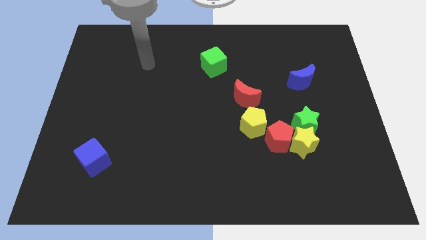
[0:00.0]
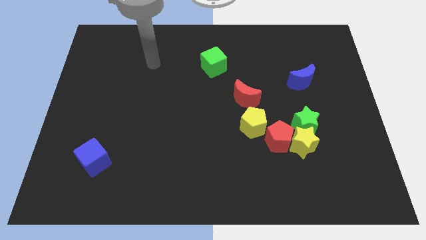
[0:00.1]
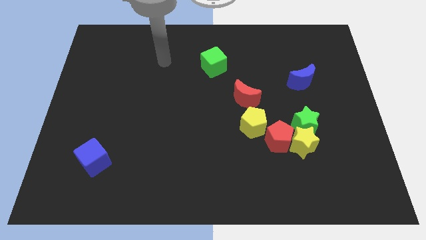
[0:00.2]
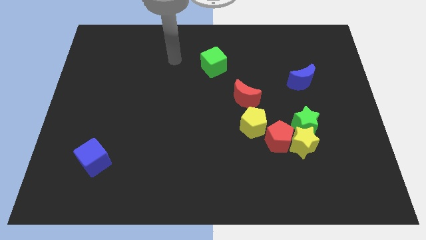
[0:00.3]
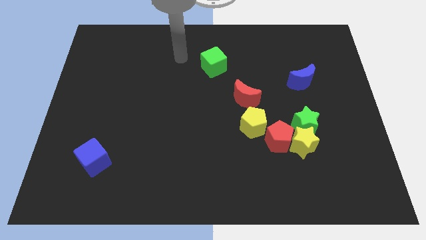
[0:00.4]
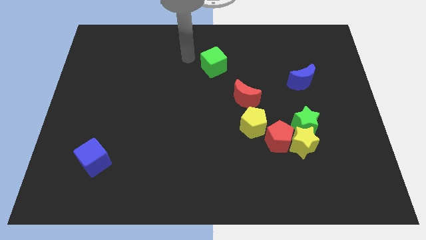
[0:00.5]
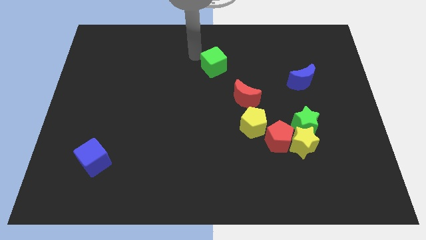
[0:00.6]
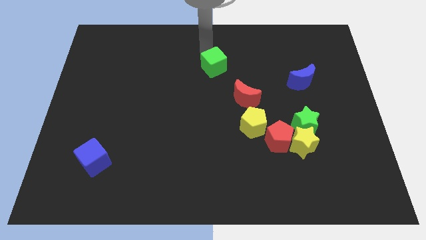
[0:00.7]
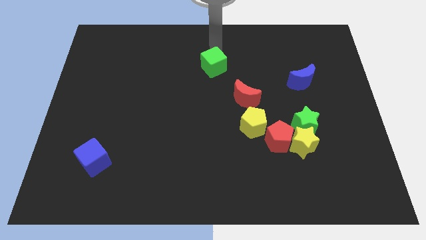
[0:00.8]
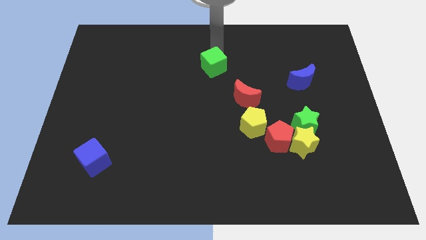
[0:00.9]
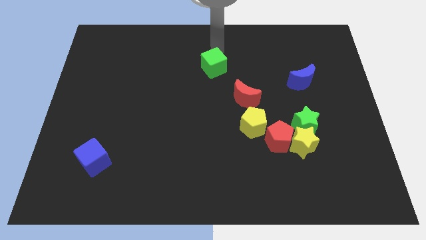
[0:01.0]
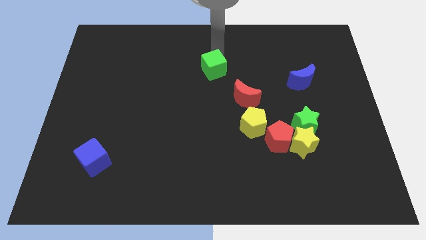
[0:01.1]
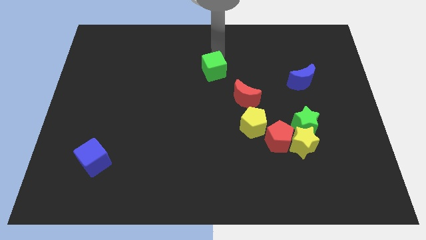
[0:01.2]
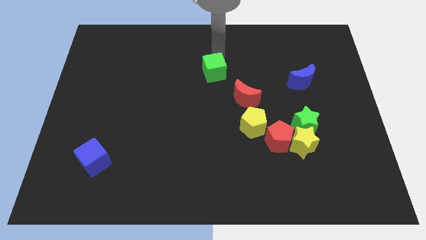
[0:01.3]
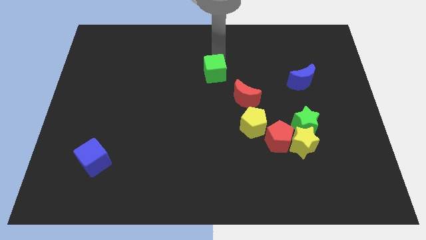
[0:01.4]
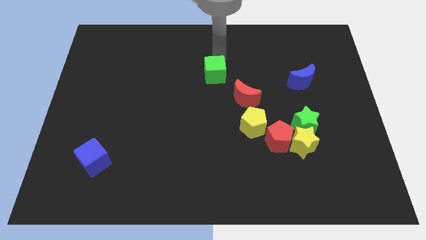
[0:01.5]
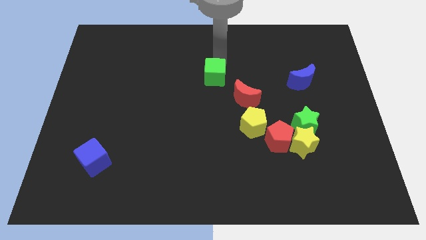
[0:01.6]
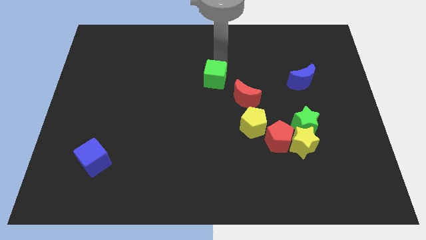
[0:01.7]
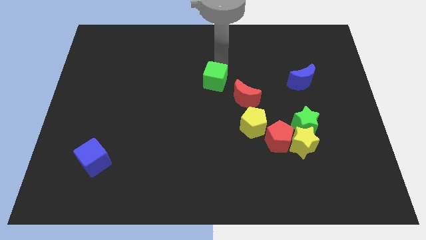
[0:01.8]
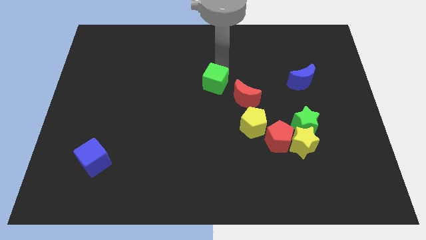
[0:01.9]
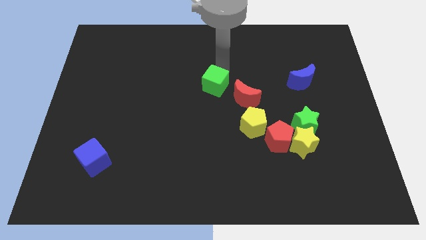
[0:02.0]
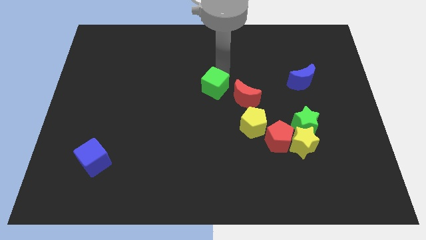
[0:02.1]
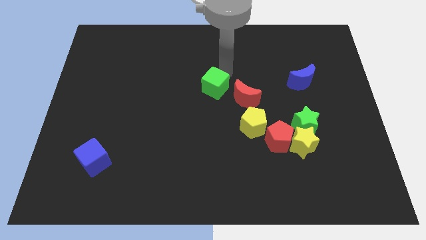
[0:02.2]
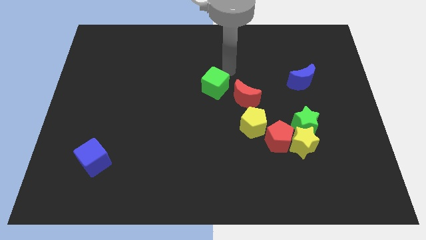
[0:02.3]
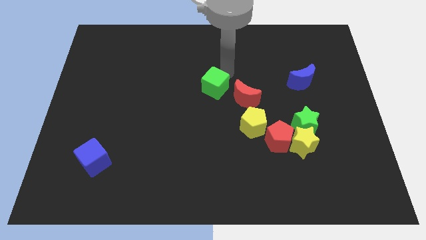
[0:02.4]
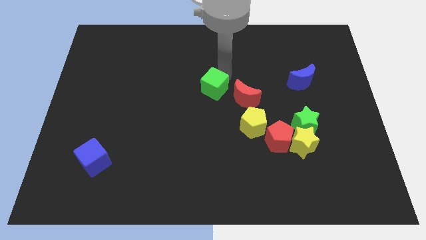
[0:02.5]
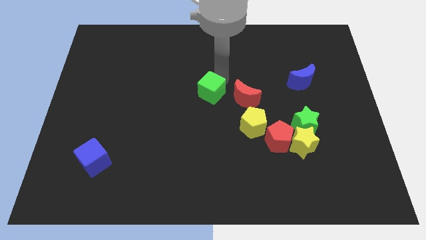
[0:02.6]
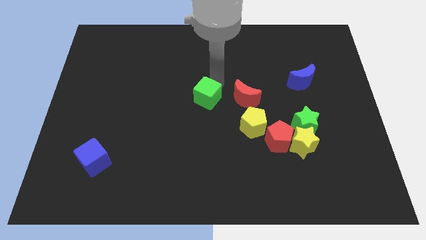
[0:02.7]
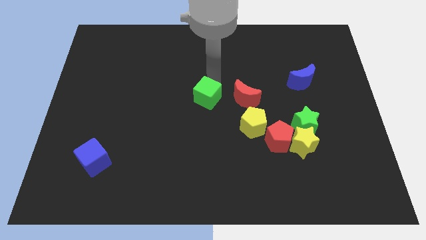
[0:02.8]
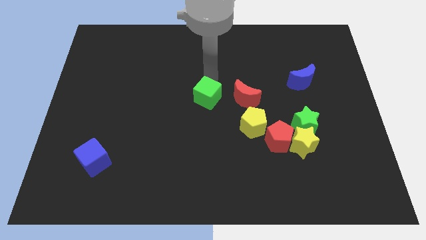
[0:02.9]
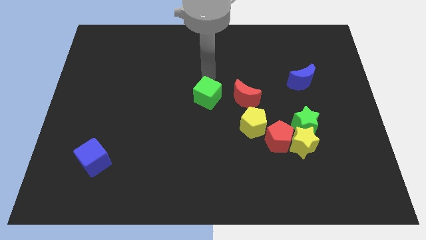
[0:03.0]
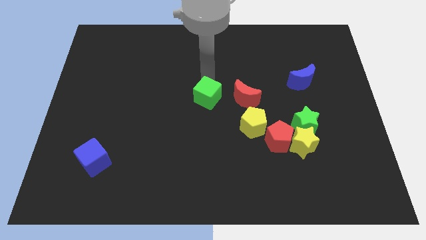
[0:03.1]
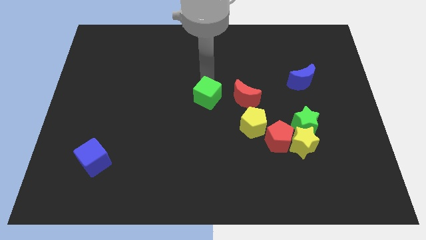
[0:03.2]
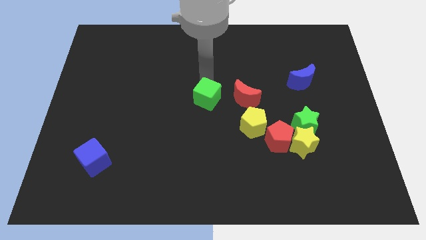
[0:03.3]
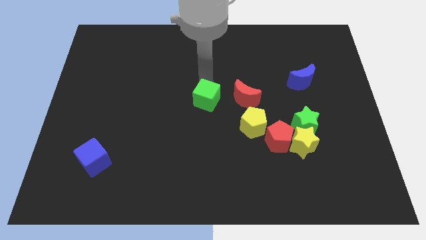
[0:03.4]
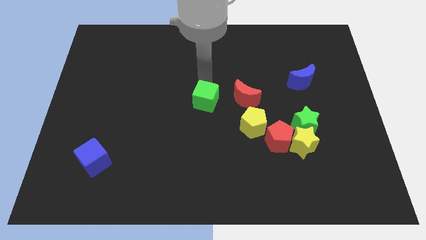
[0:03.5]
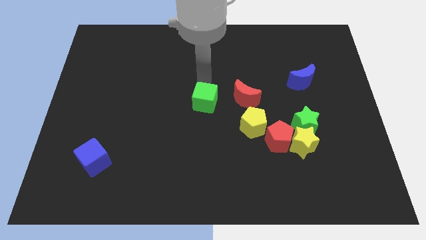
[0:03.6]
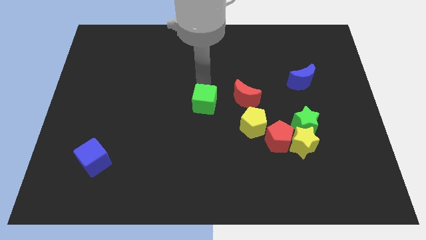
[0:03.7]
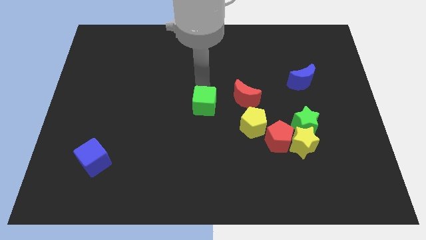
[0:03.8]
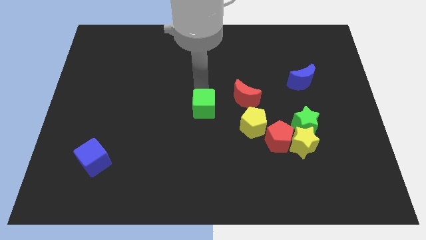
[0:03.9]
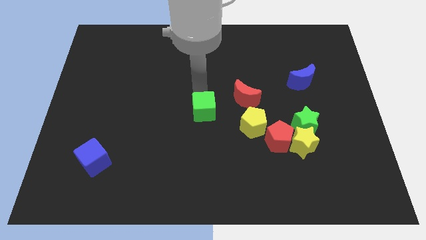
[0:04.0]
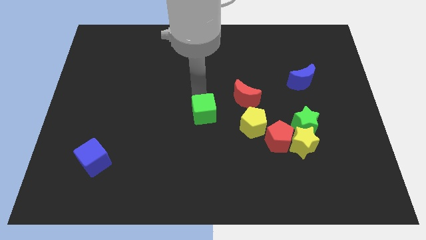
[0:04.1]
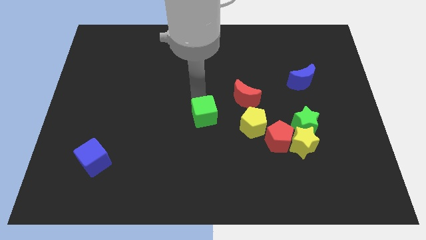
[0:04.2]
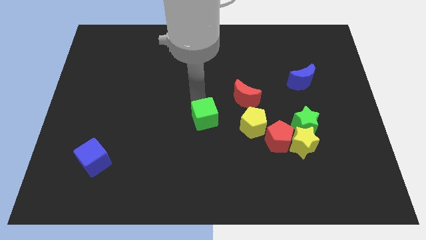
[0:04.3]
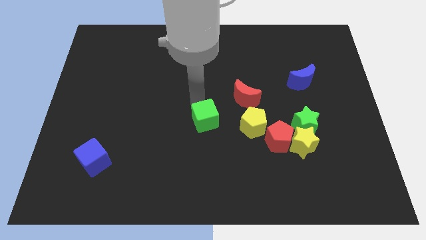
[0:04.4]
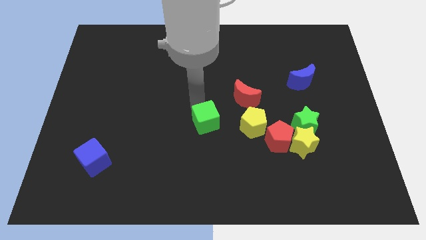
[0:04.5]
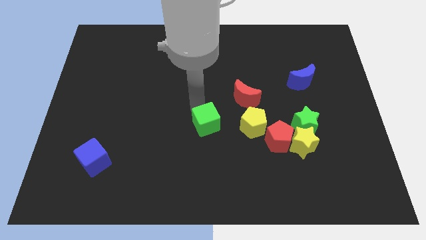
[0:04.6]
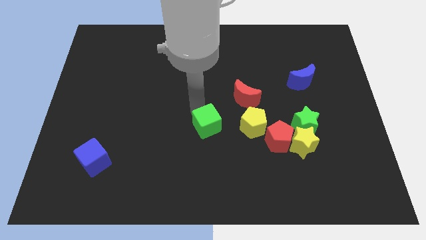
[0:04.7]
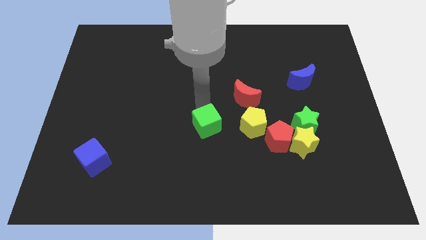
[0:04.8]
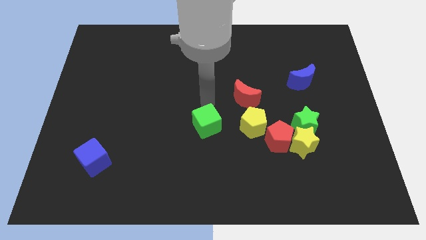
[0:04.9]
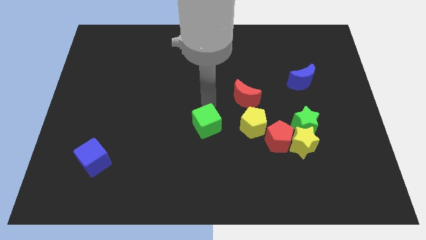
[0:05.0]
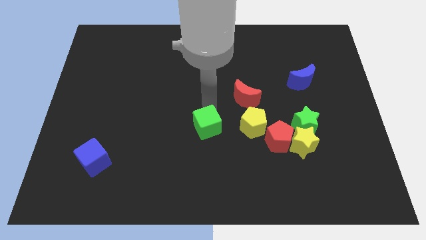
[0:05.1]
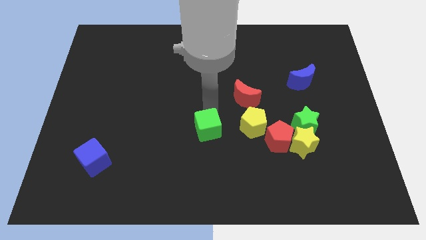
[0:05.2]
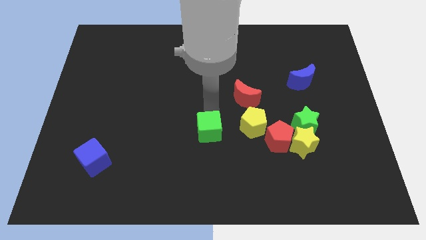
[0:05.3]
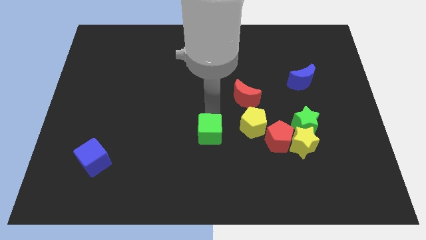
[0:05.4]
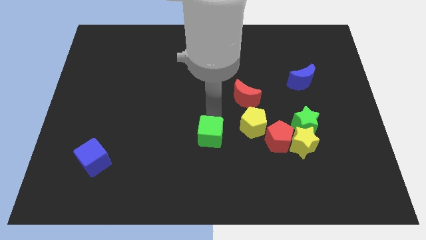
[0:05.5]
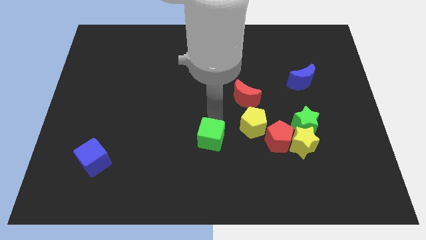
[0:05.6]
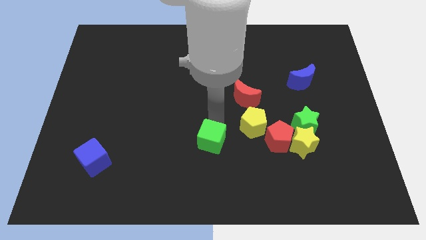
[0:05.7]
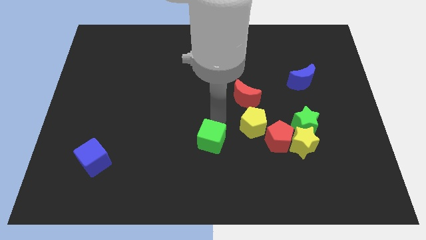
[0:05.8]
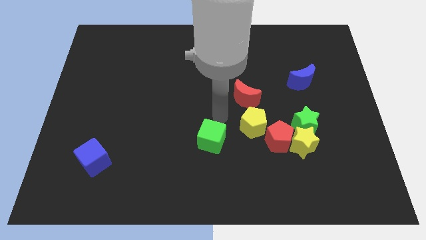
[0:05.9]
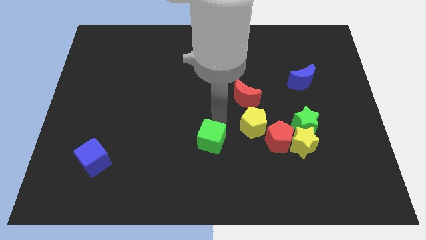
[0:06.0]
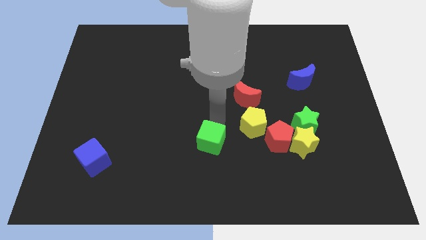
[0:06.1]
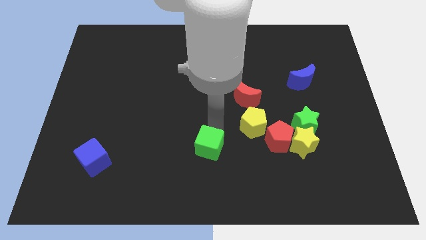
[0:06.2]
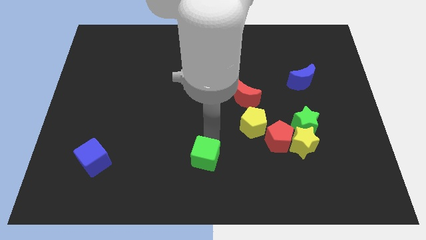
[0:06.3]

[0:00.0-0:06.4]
move the green cube to the bottom side
